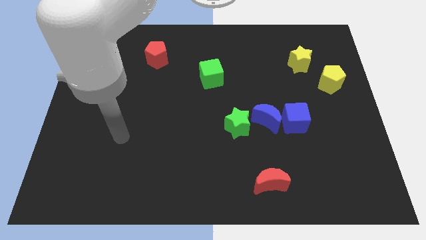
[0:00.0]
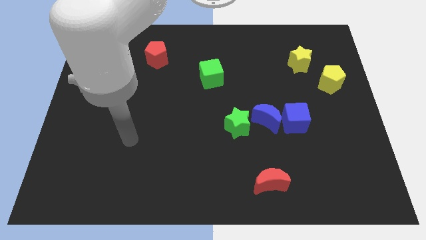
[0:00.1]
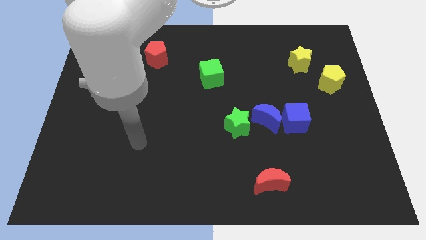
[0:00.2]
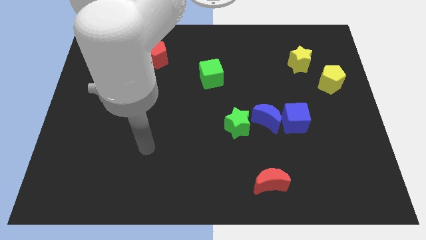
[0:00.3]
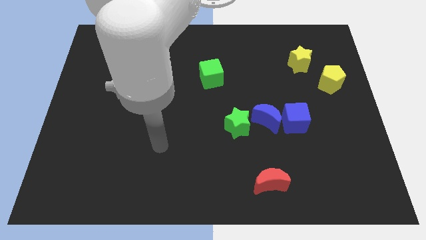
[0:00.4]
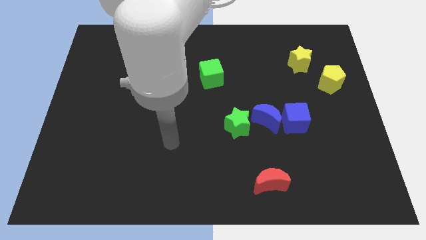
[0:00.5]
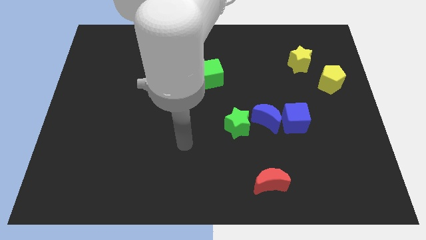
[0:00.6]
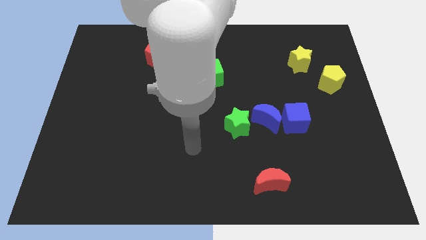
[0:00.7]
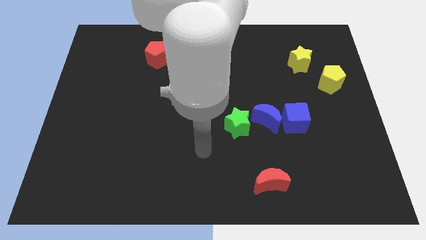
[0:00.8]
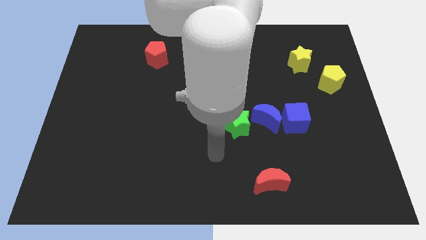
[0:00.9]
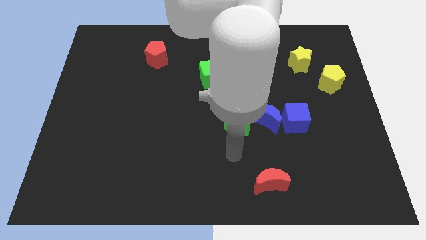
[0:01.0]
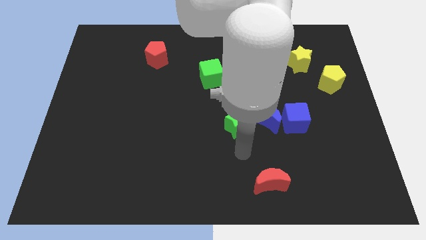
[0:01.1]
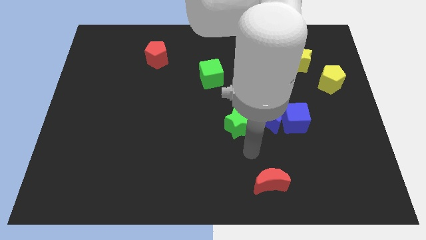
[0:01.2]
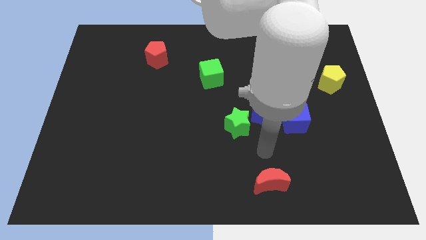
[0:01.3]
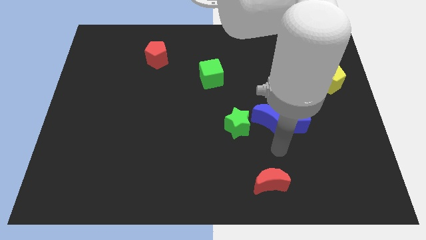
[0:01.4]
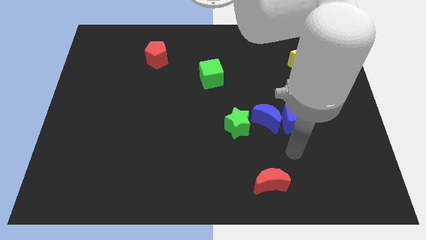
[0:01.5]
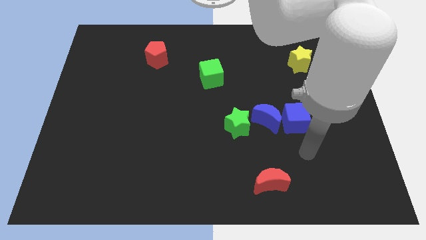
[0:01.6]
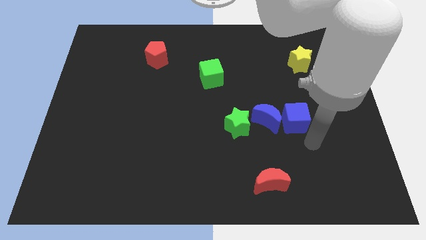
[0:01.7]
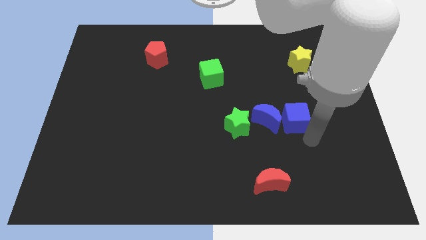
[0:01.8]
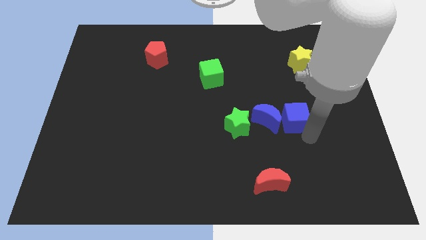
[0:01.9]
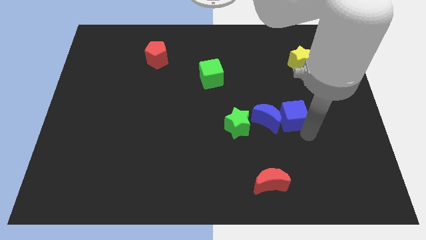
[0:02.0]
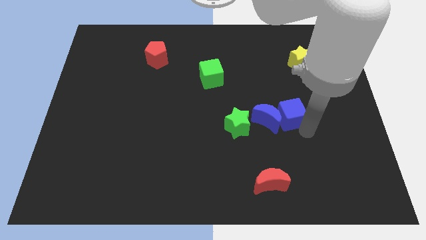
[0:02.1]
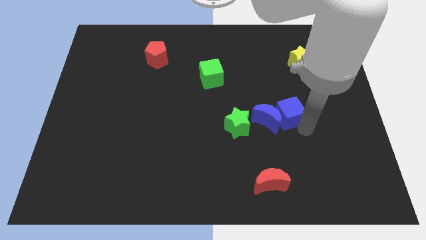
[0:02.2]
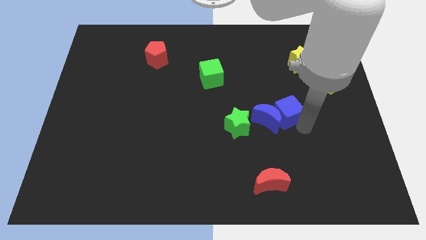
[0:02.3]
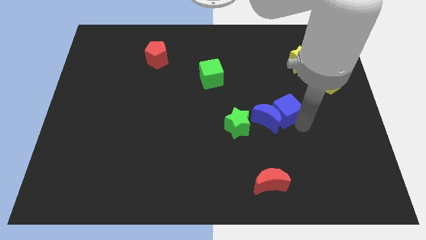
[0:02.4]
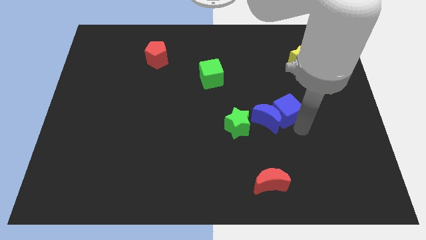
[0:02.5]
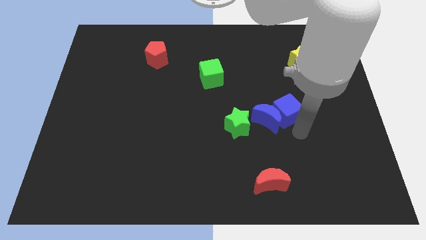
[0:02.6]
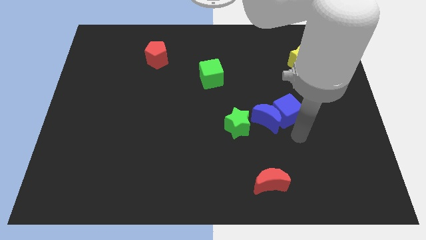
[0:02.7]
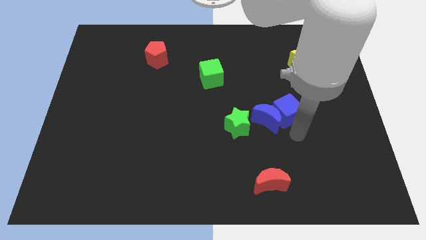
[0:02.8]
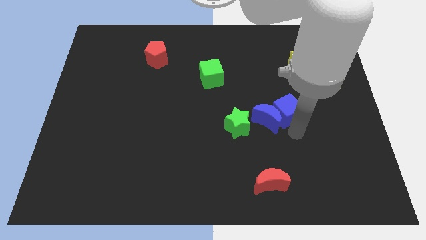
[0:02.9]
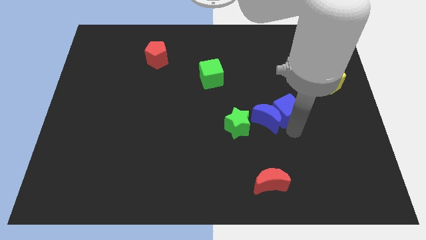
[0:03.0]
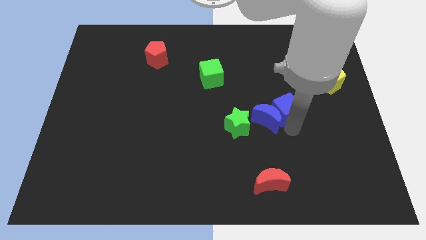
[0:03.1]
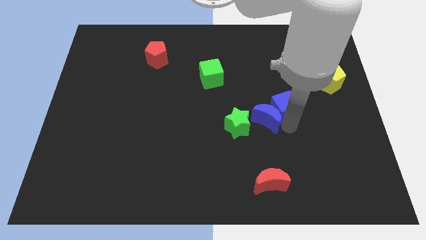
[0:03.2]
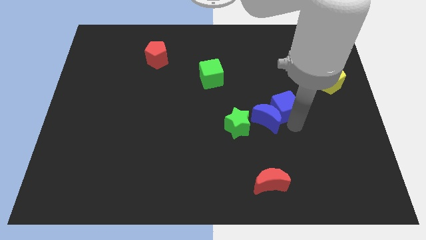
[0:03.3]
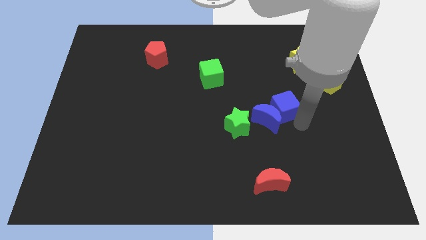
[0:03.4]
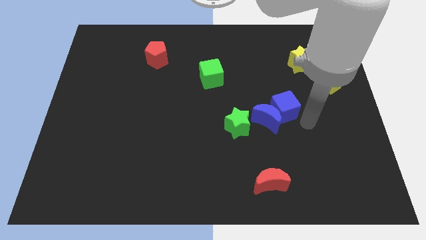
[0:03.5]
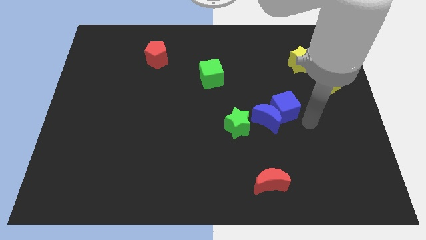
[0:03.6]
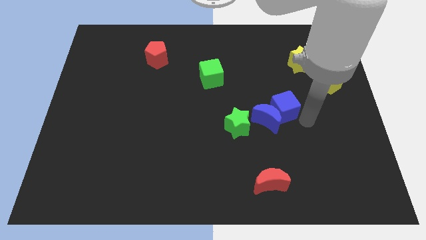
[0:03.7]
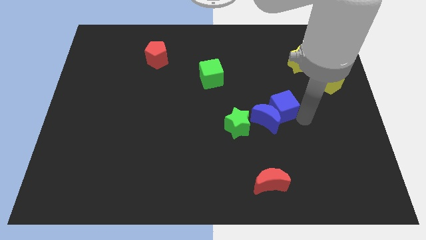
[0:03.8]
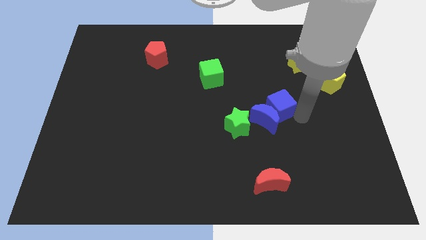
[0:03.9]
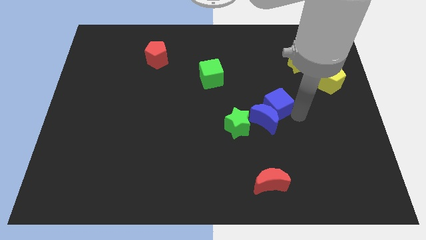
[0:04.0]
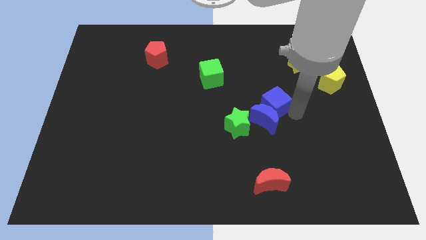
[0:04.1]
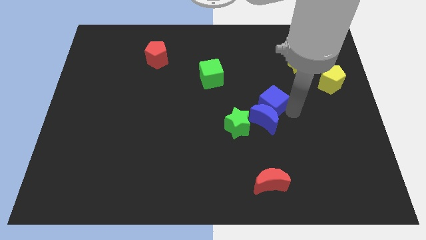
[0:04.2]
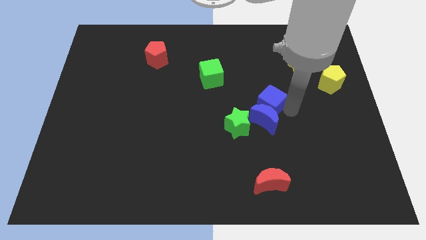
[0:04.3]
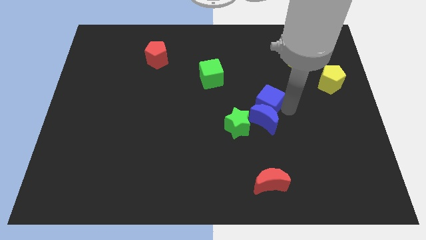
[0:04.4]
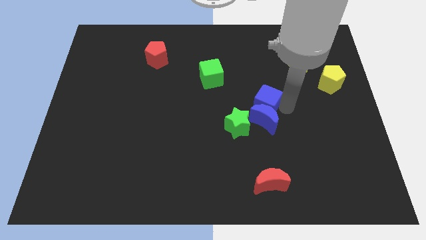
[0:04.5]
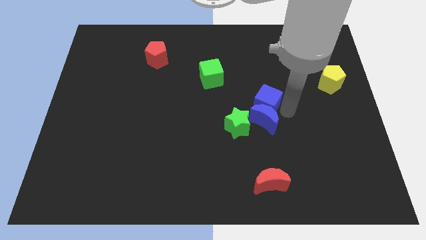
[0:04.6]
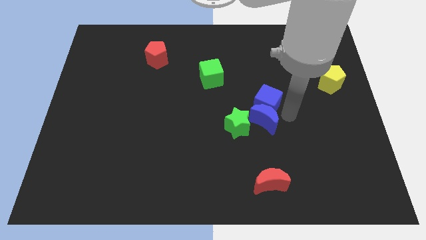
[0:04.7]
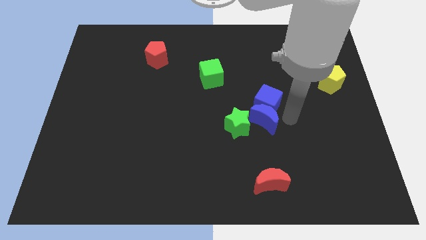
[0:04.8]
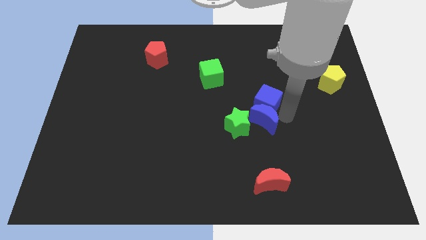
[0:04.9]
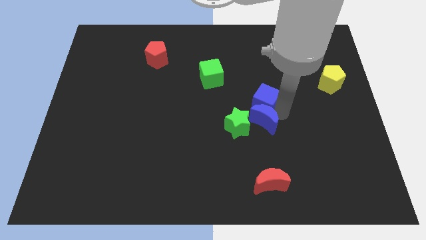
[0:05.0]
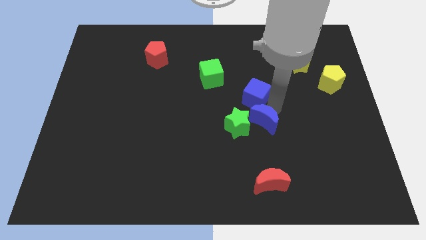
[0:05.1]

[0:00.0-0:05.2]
move the blue cube to the bottom right side of the green cube

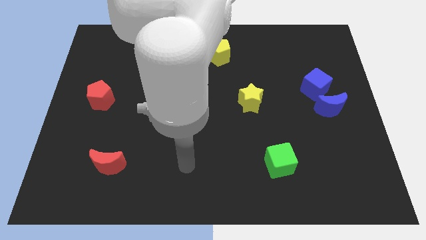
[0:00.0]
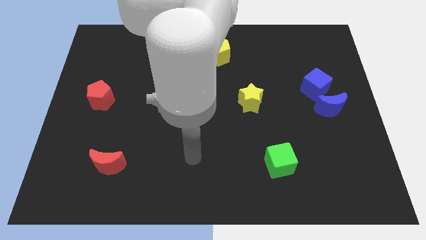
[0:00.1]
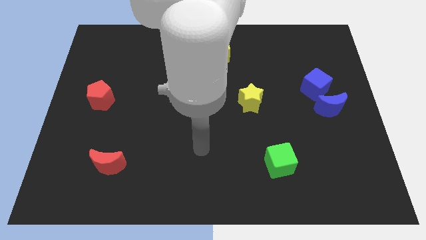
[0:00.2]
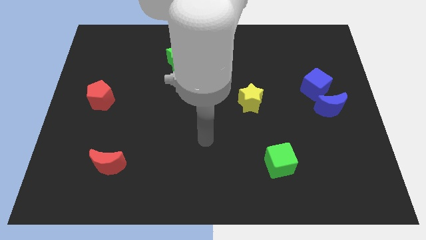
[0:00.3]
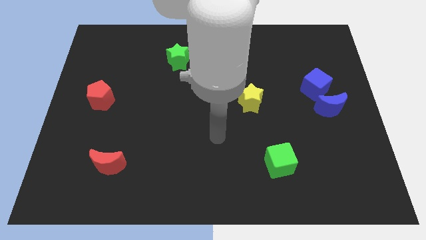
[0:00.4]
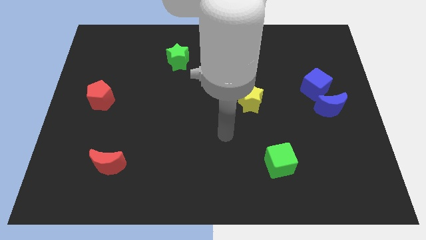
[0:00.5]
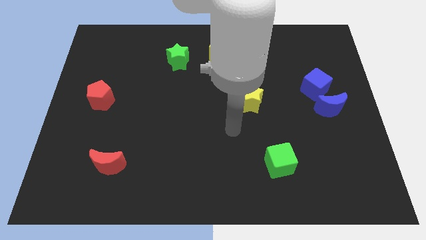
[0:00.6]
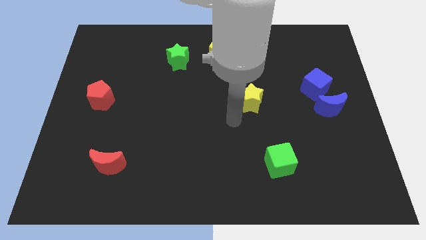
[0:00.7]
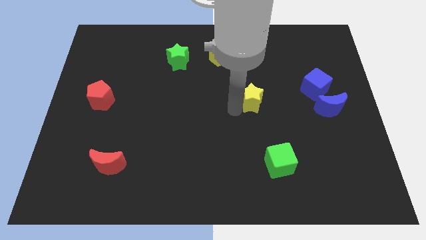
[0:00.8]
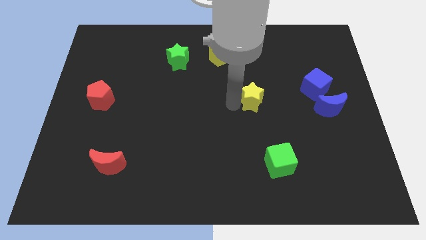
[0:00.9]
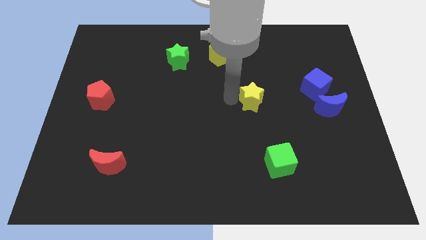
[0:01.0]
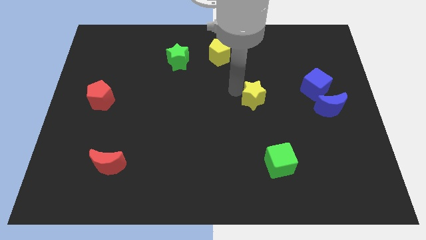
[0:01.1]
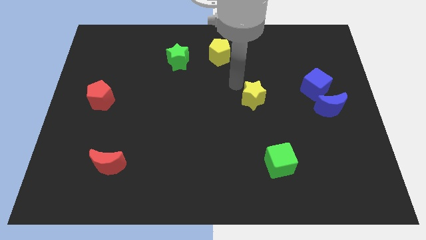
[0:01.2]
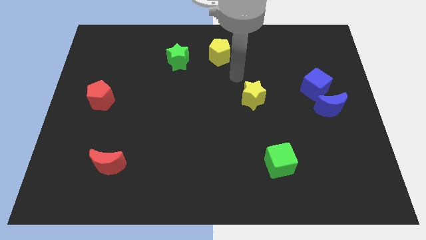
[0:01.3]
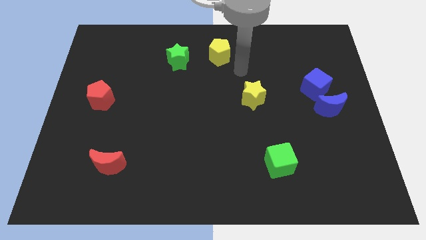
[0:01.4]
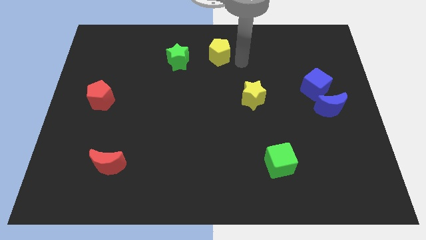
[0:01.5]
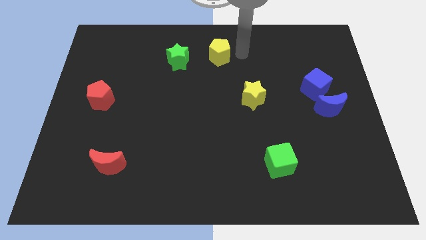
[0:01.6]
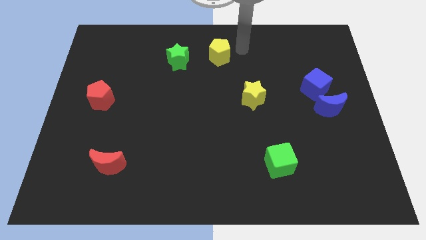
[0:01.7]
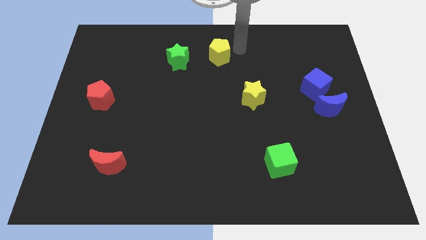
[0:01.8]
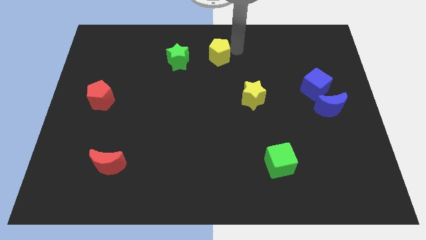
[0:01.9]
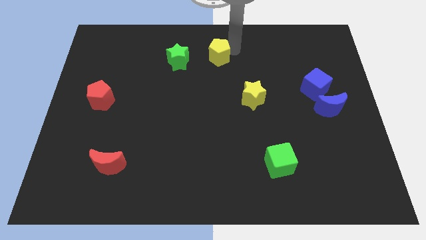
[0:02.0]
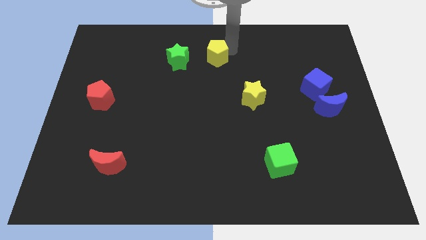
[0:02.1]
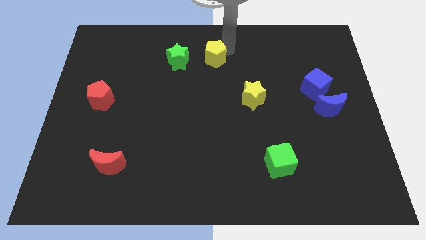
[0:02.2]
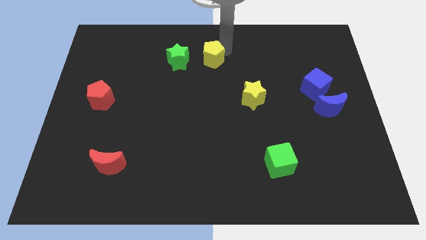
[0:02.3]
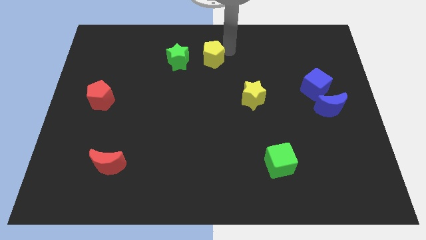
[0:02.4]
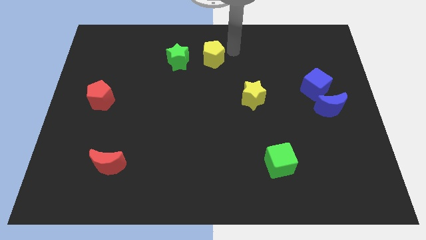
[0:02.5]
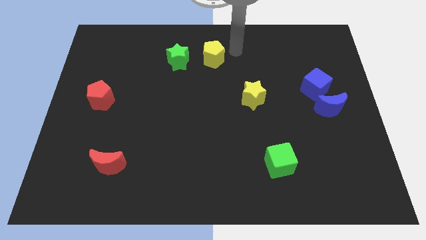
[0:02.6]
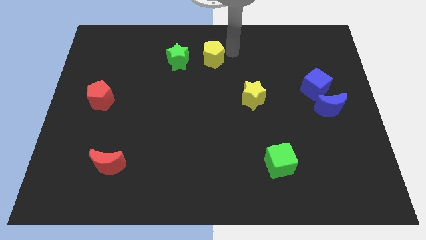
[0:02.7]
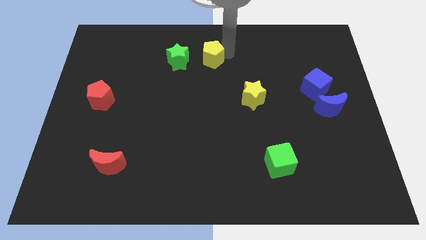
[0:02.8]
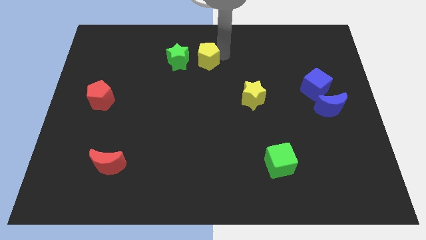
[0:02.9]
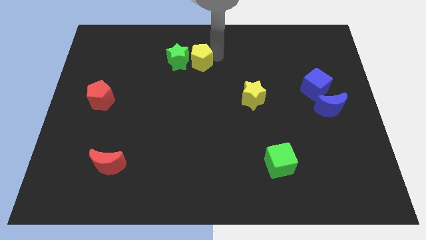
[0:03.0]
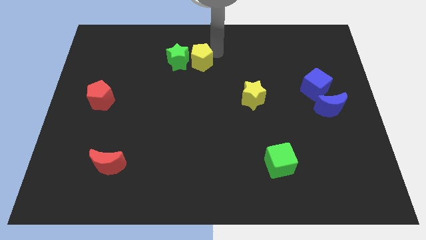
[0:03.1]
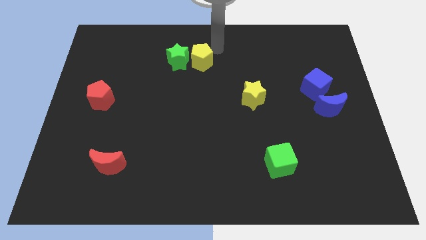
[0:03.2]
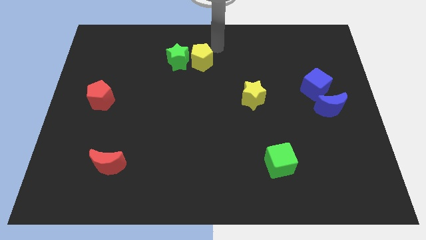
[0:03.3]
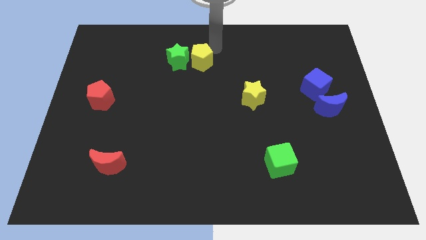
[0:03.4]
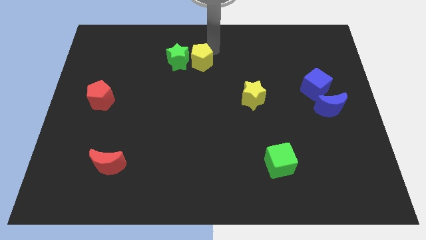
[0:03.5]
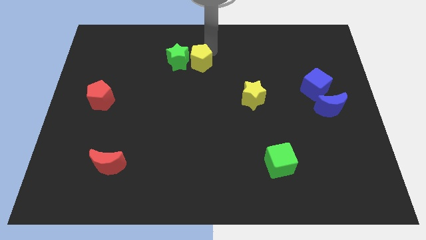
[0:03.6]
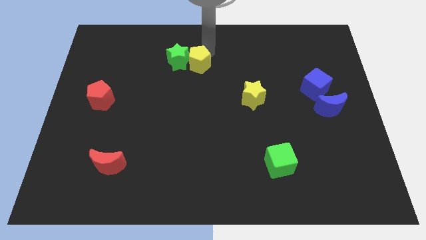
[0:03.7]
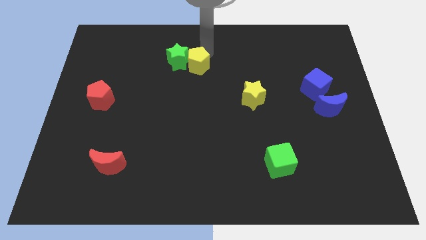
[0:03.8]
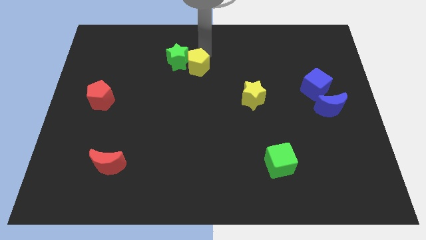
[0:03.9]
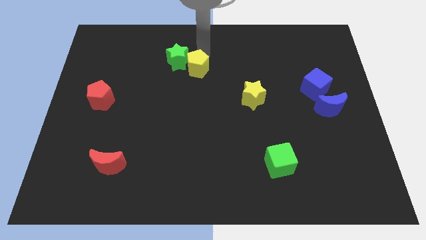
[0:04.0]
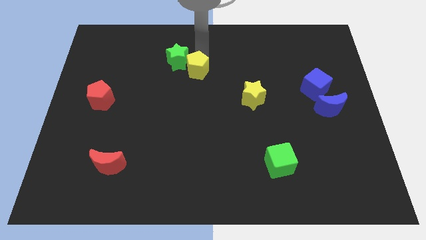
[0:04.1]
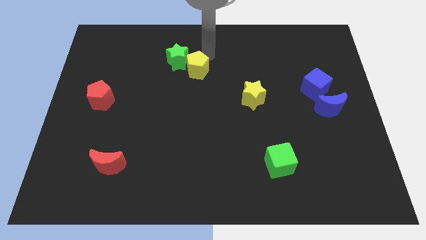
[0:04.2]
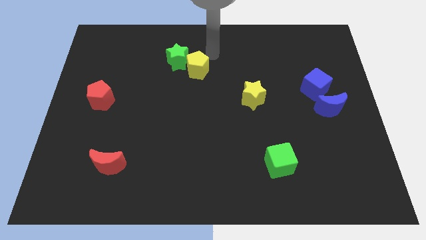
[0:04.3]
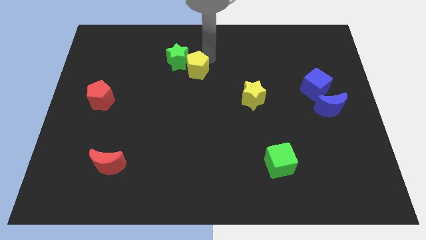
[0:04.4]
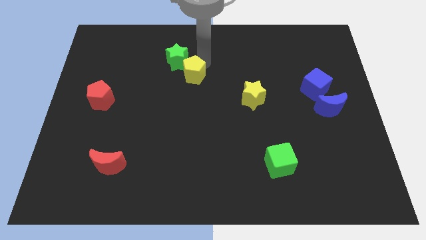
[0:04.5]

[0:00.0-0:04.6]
slide the yellow pentagon to the bottom side of the green star
